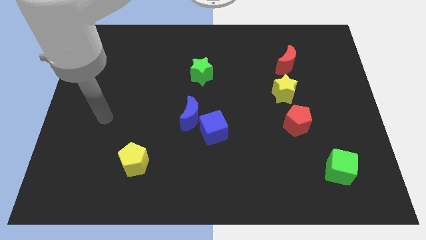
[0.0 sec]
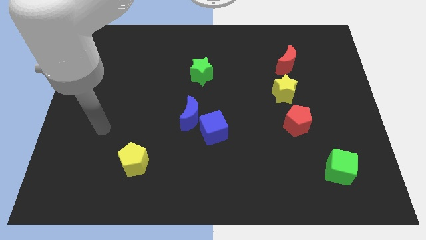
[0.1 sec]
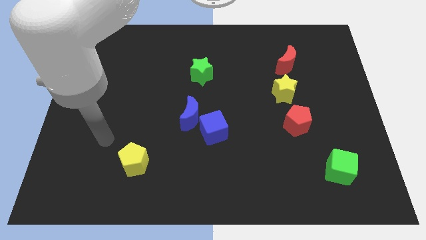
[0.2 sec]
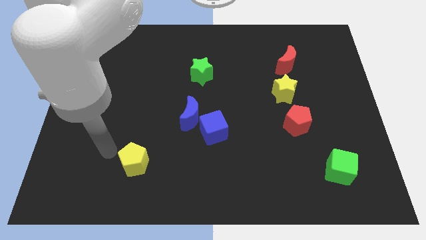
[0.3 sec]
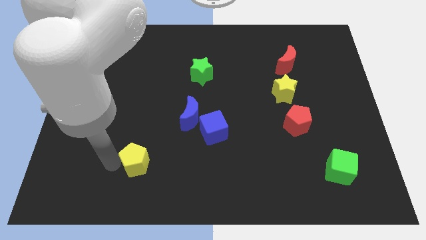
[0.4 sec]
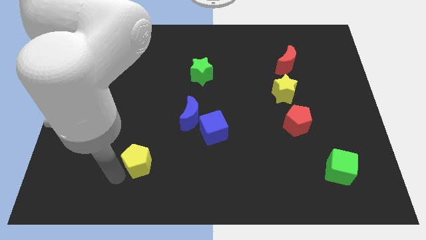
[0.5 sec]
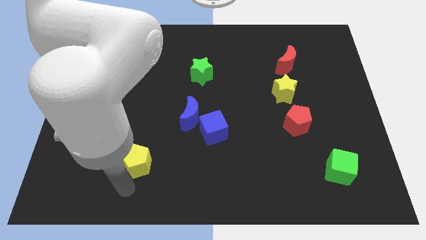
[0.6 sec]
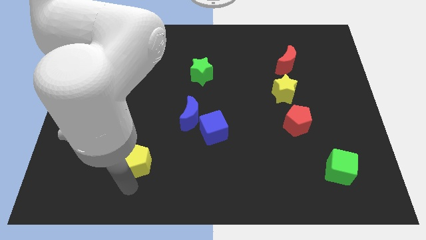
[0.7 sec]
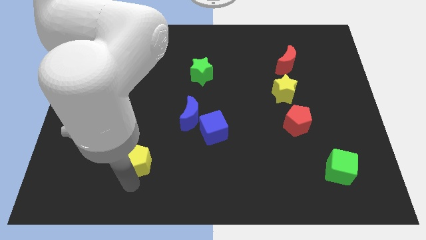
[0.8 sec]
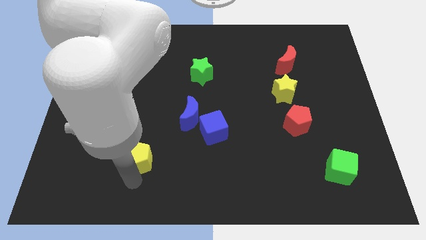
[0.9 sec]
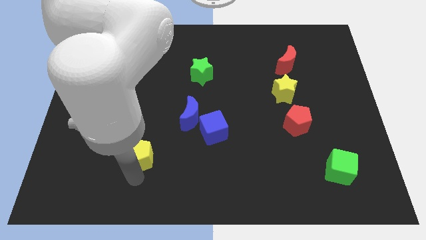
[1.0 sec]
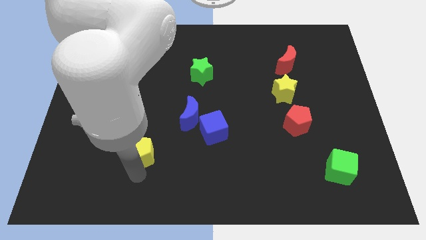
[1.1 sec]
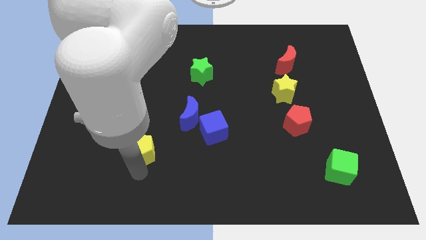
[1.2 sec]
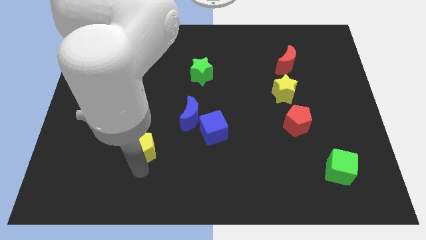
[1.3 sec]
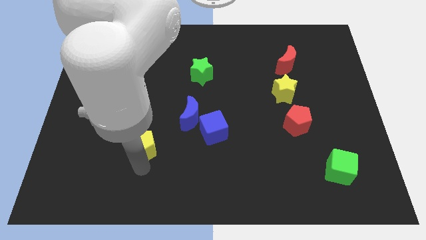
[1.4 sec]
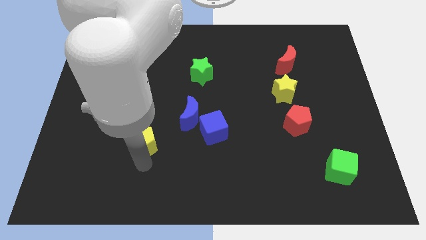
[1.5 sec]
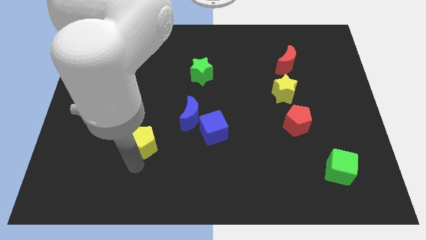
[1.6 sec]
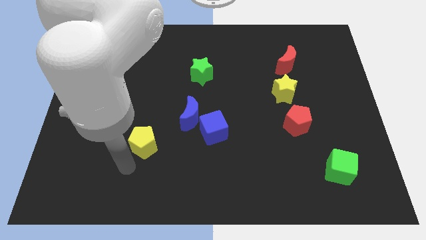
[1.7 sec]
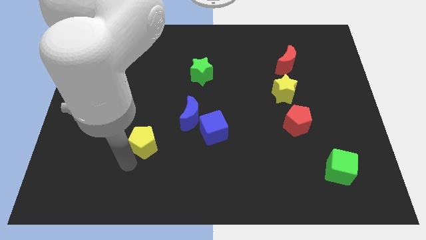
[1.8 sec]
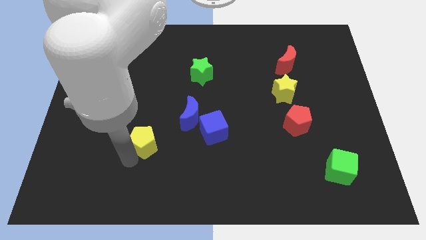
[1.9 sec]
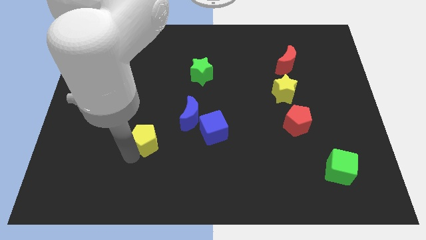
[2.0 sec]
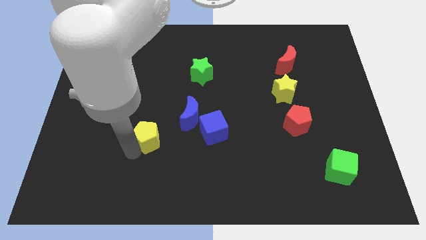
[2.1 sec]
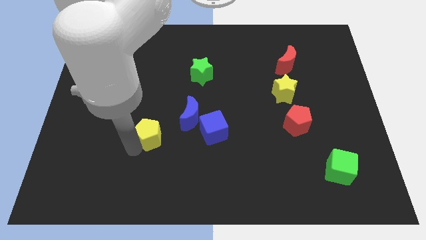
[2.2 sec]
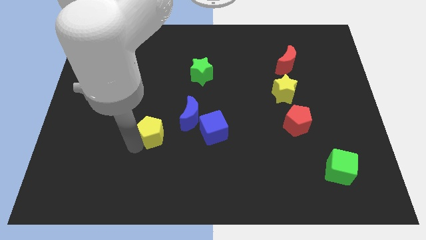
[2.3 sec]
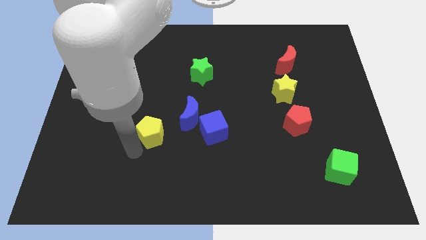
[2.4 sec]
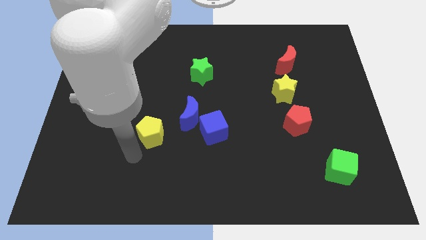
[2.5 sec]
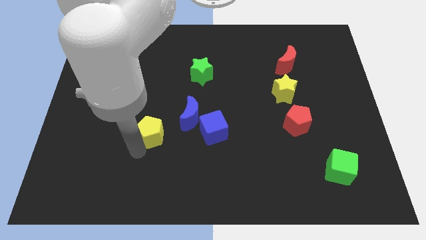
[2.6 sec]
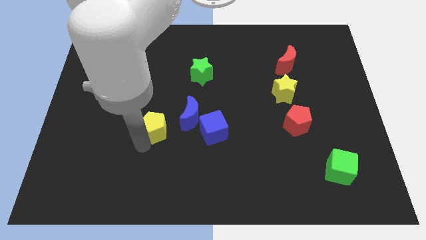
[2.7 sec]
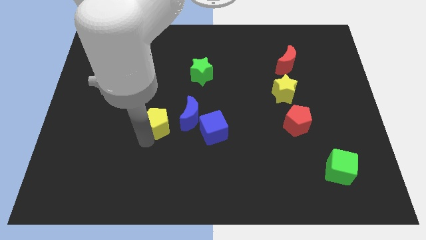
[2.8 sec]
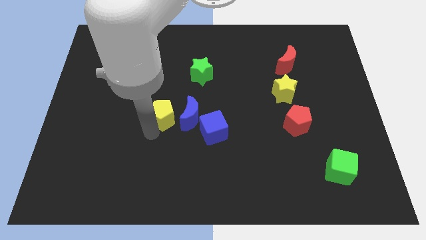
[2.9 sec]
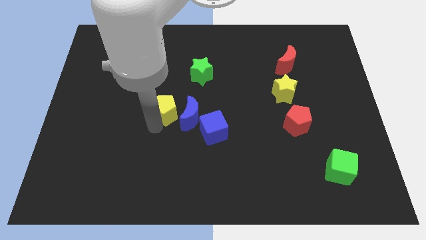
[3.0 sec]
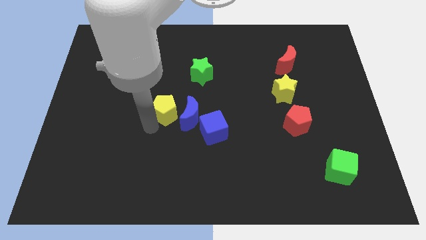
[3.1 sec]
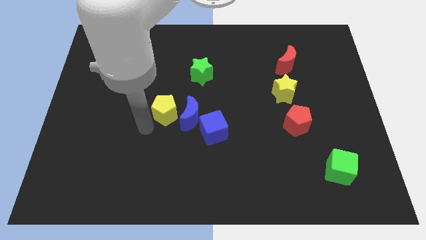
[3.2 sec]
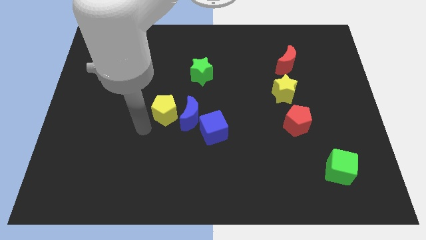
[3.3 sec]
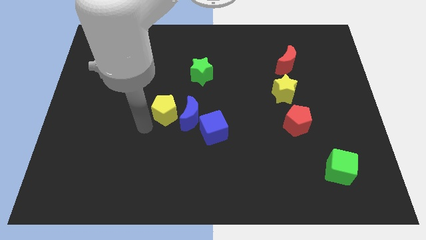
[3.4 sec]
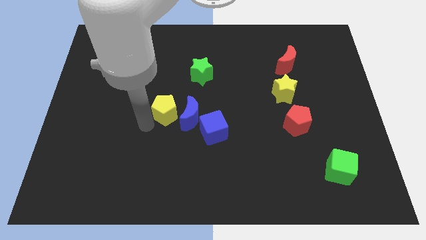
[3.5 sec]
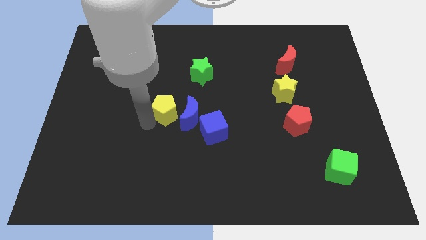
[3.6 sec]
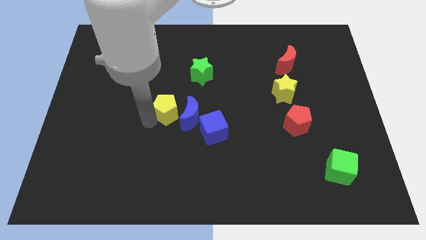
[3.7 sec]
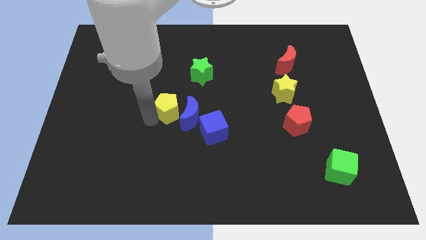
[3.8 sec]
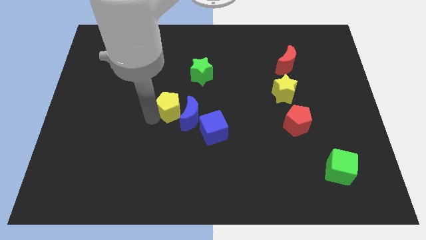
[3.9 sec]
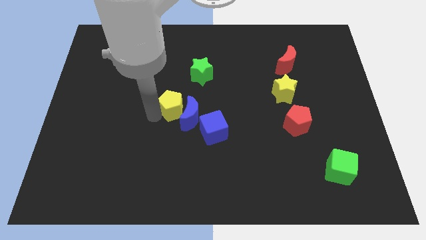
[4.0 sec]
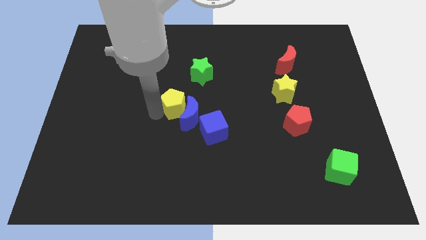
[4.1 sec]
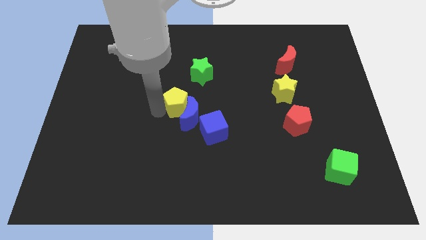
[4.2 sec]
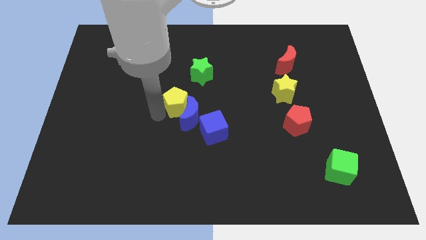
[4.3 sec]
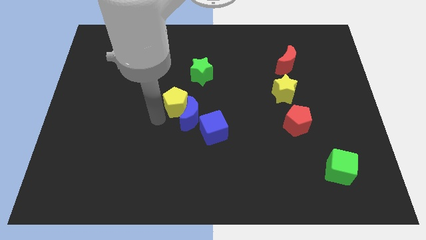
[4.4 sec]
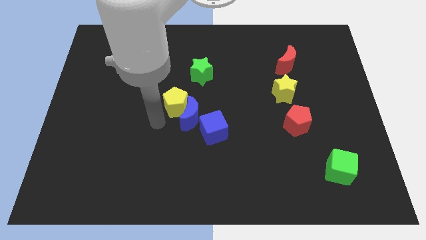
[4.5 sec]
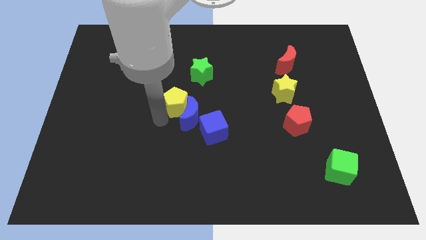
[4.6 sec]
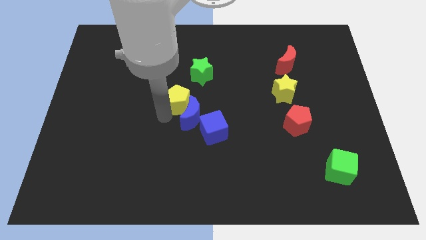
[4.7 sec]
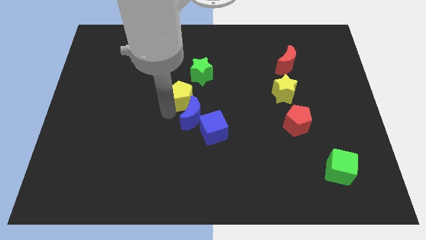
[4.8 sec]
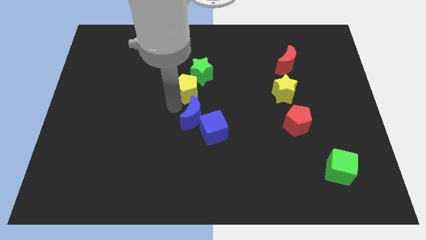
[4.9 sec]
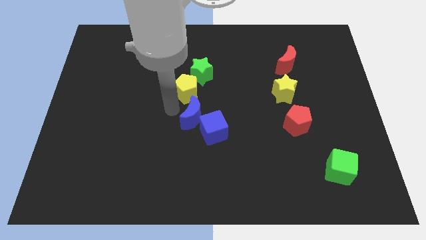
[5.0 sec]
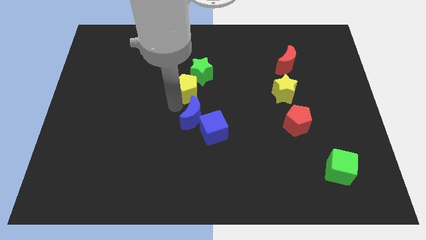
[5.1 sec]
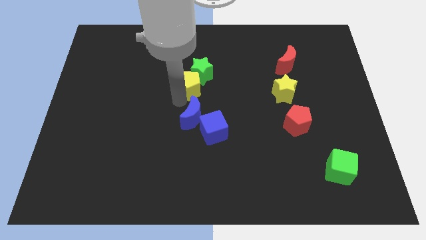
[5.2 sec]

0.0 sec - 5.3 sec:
slide the yellow pentagon to the green star

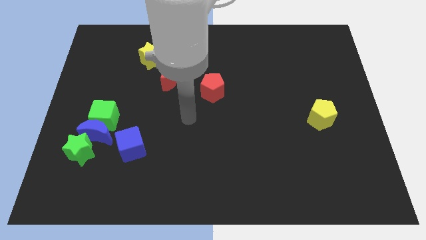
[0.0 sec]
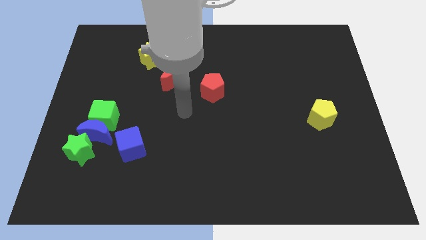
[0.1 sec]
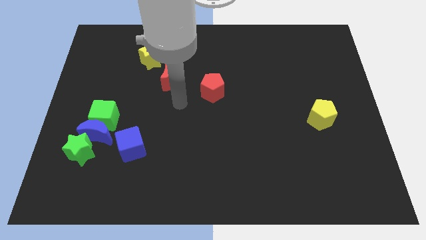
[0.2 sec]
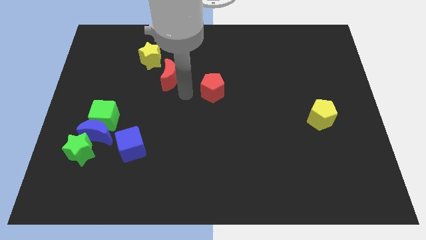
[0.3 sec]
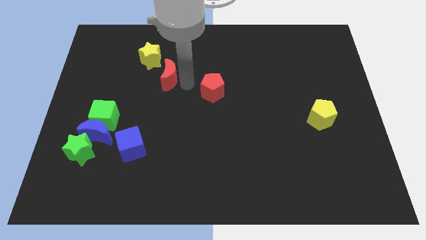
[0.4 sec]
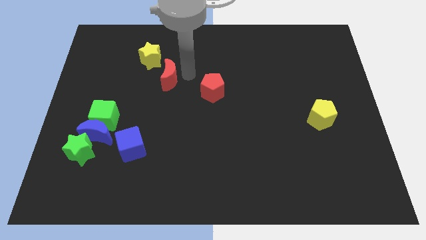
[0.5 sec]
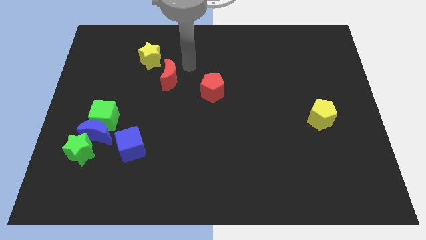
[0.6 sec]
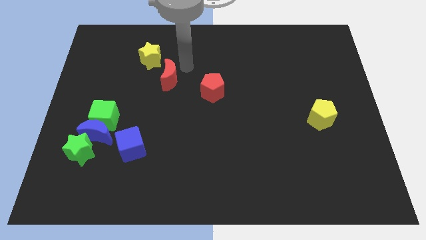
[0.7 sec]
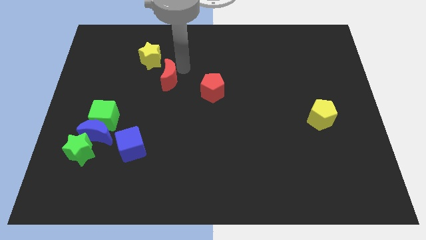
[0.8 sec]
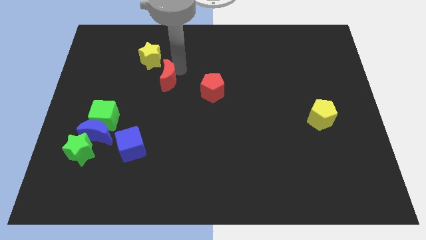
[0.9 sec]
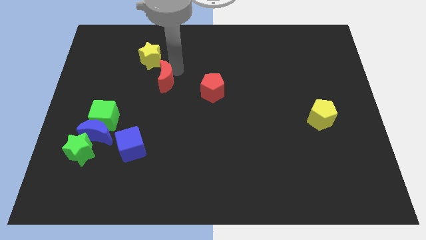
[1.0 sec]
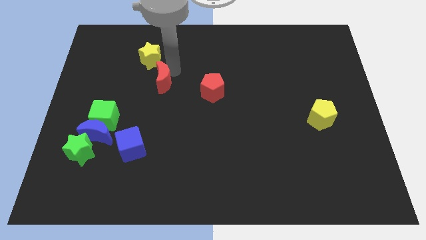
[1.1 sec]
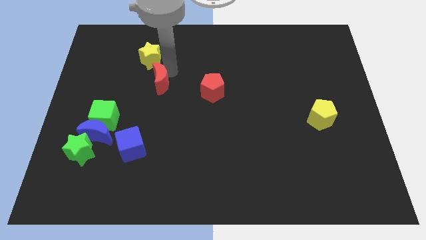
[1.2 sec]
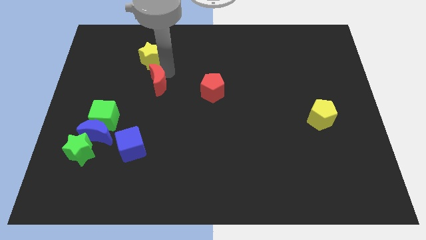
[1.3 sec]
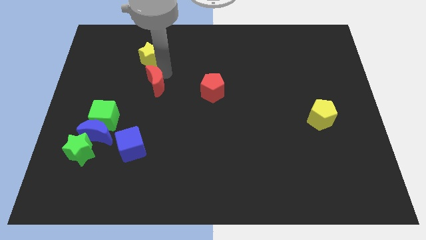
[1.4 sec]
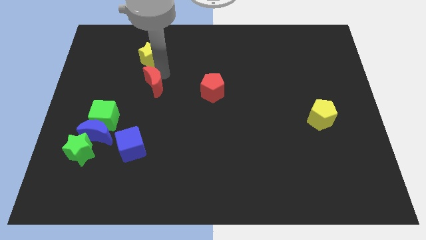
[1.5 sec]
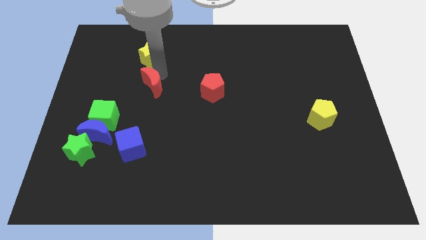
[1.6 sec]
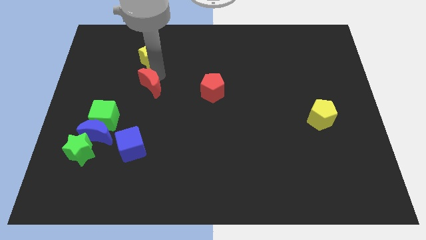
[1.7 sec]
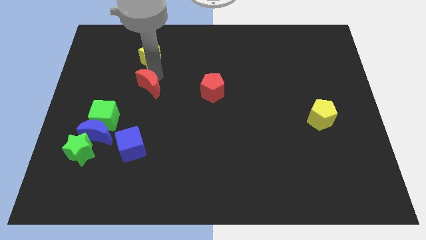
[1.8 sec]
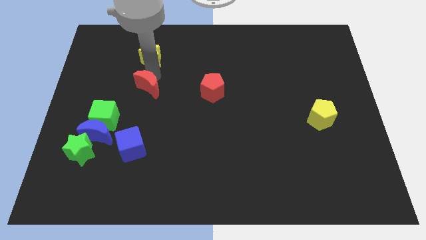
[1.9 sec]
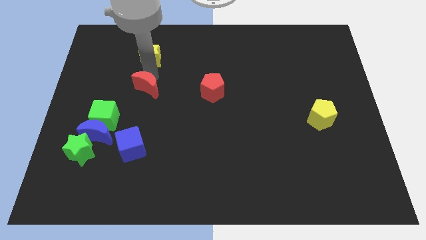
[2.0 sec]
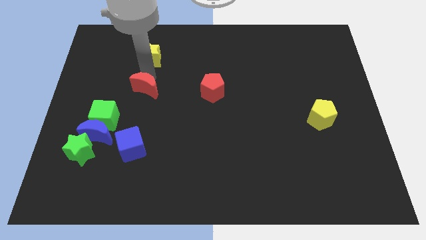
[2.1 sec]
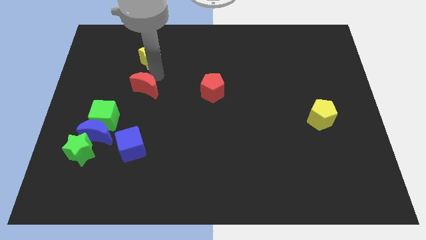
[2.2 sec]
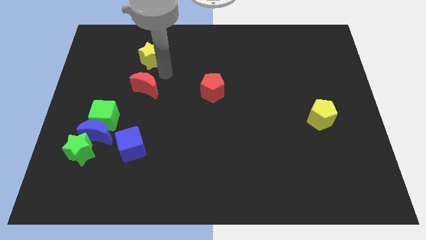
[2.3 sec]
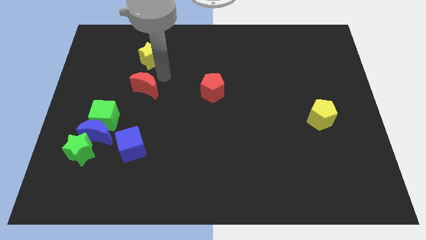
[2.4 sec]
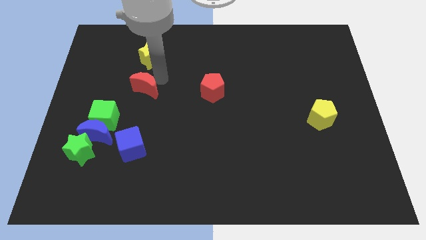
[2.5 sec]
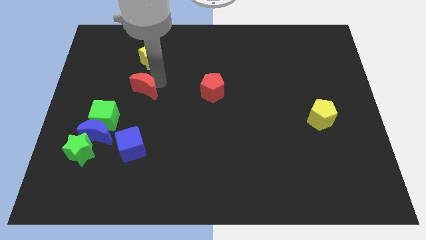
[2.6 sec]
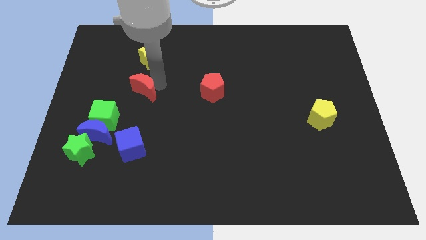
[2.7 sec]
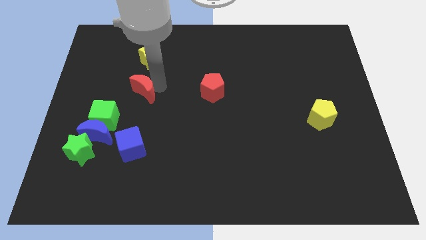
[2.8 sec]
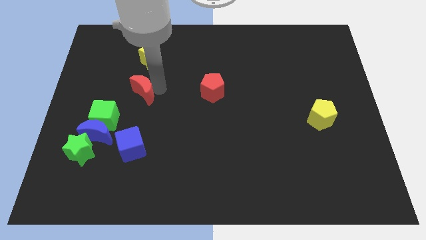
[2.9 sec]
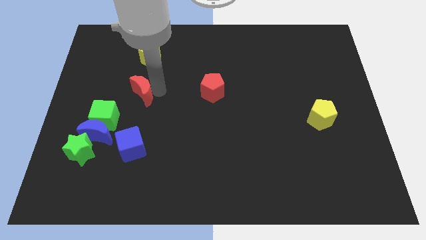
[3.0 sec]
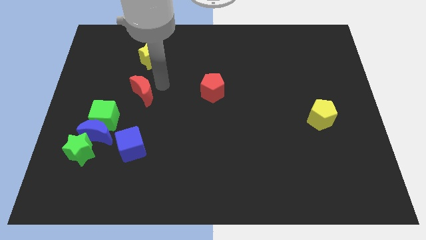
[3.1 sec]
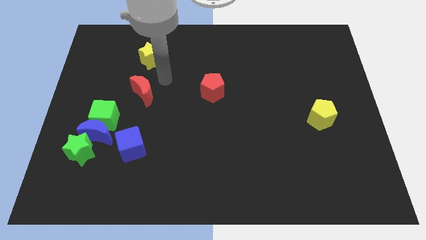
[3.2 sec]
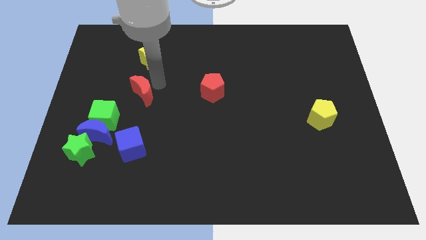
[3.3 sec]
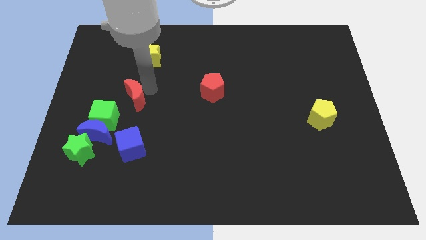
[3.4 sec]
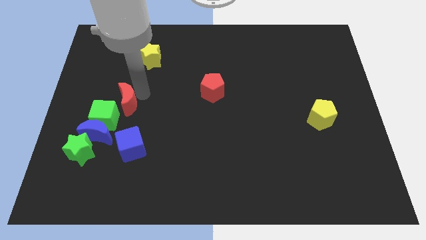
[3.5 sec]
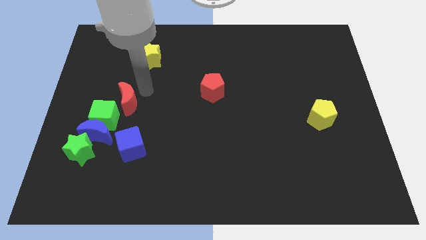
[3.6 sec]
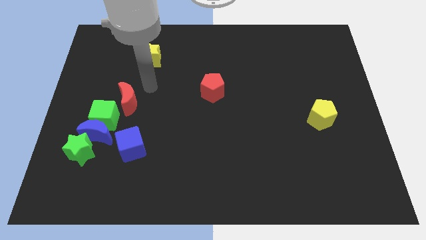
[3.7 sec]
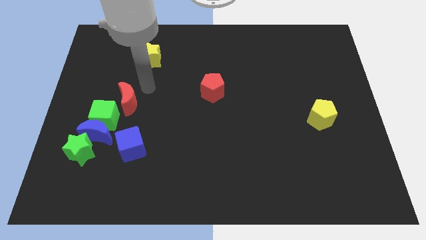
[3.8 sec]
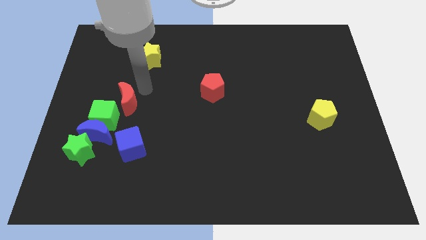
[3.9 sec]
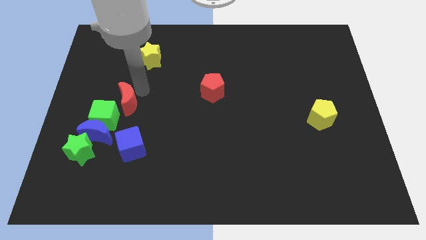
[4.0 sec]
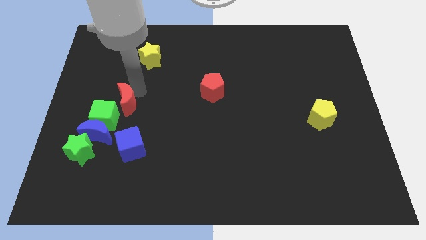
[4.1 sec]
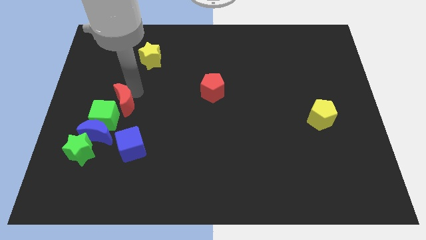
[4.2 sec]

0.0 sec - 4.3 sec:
move the red moon close to the green cube
